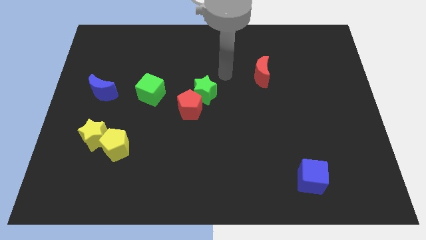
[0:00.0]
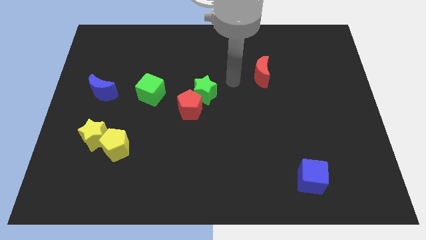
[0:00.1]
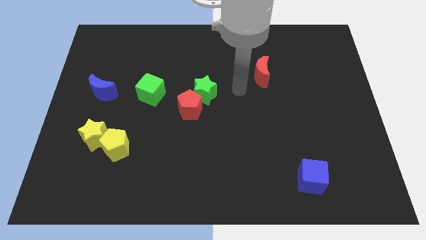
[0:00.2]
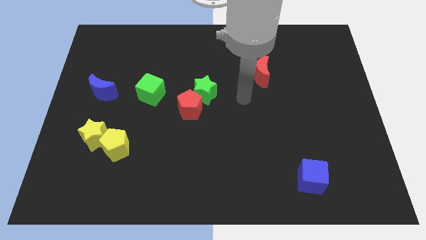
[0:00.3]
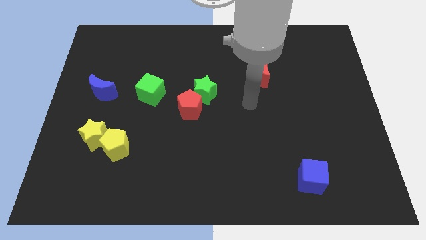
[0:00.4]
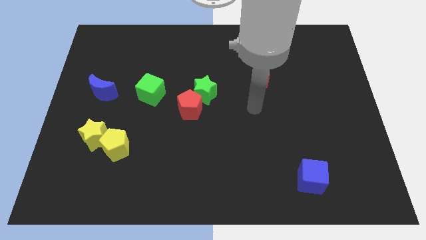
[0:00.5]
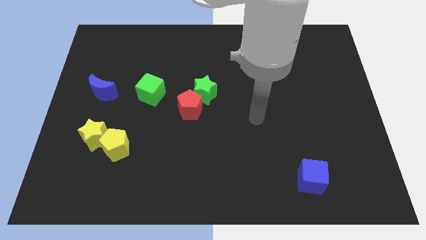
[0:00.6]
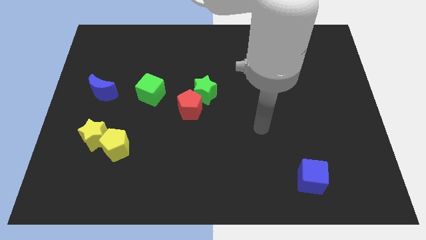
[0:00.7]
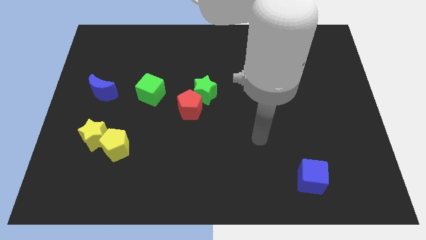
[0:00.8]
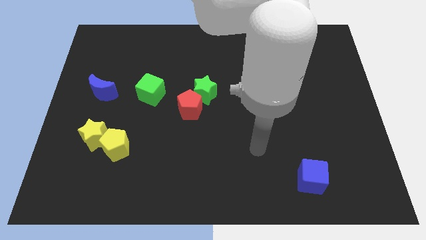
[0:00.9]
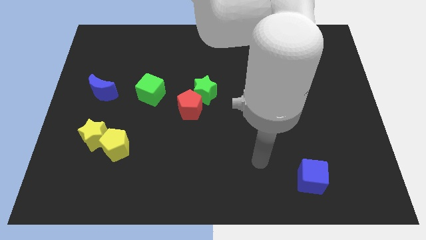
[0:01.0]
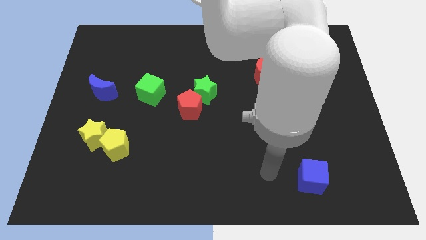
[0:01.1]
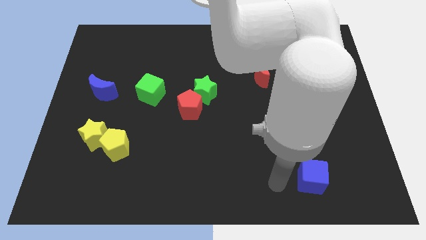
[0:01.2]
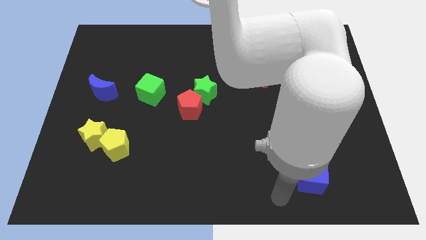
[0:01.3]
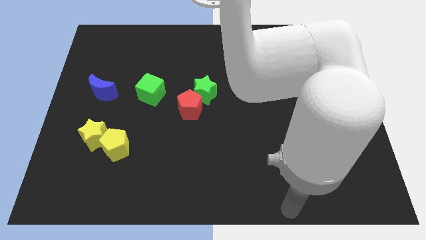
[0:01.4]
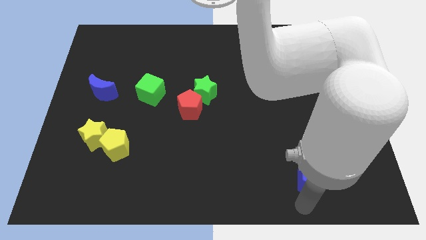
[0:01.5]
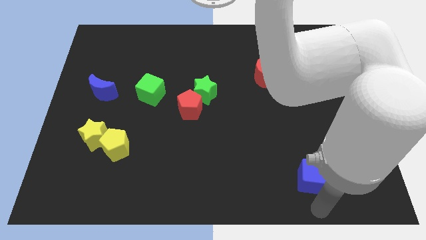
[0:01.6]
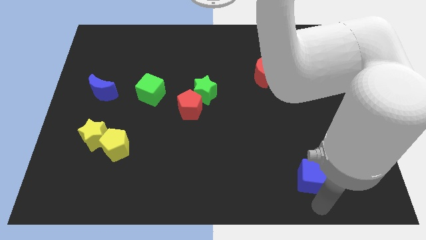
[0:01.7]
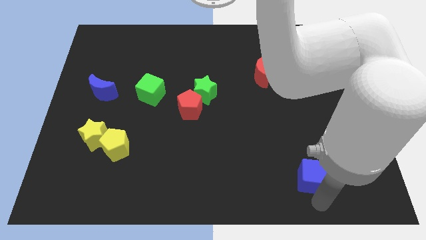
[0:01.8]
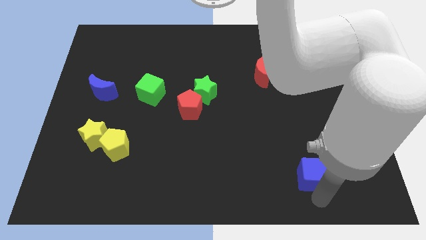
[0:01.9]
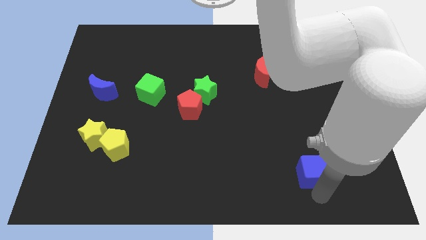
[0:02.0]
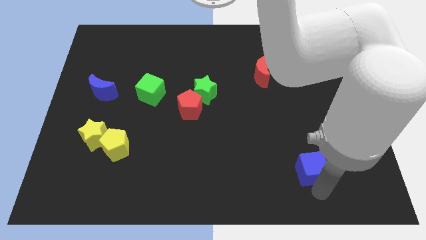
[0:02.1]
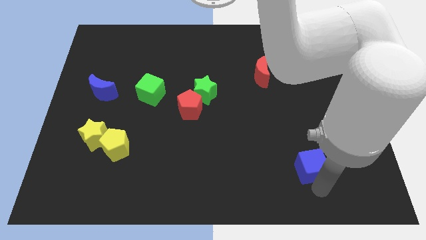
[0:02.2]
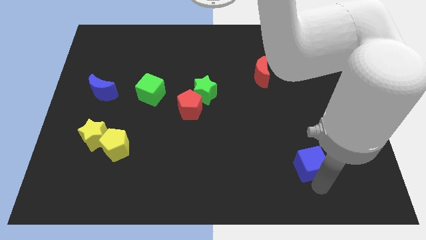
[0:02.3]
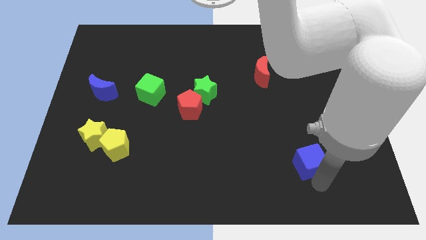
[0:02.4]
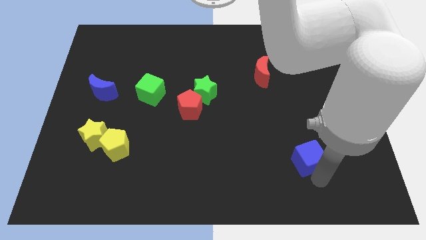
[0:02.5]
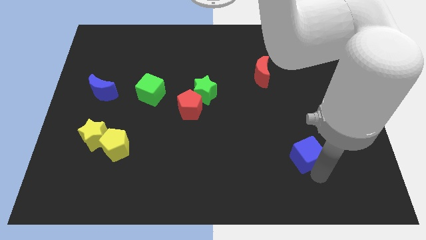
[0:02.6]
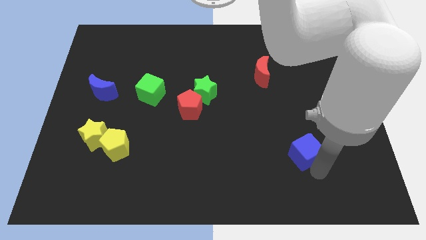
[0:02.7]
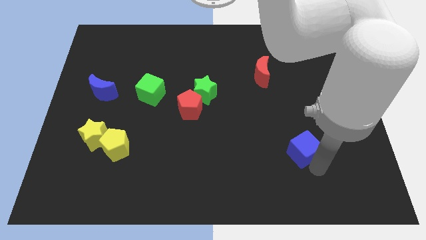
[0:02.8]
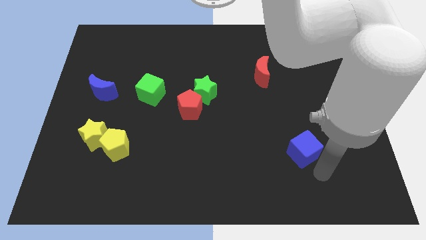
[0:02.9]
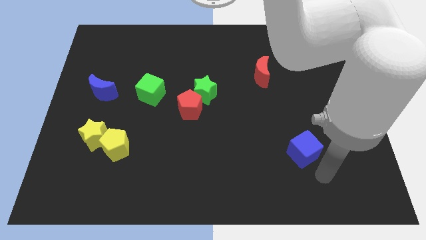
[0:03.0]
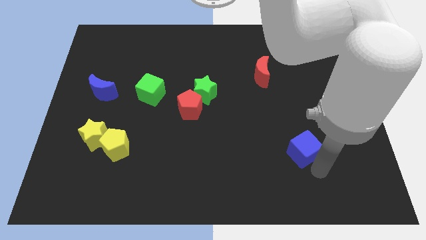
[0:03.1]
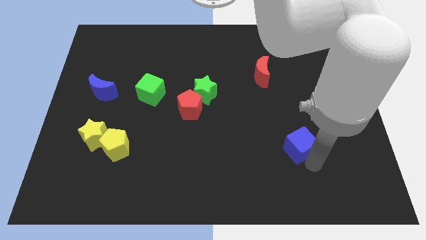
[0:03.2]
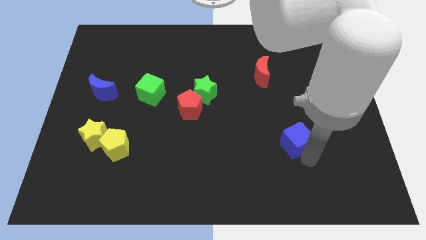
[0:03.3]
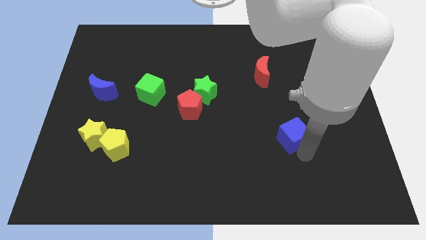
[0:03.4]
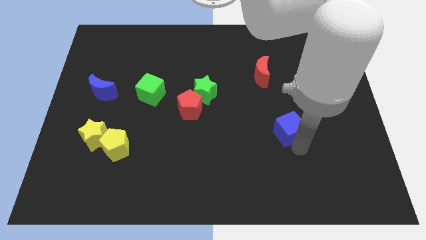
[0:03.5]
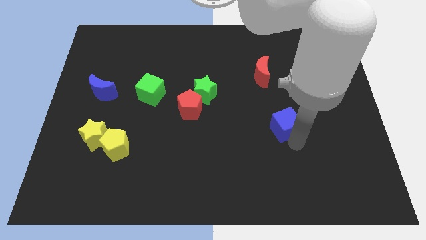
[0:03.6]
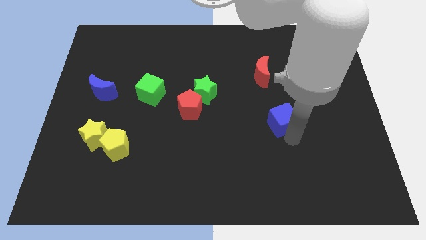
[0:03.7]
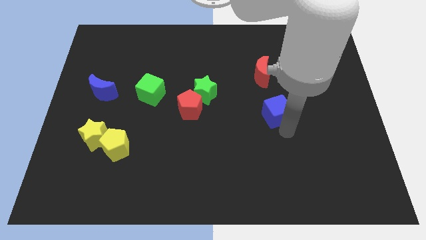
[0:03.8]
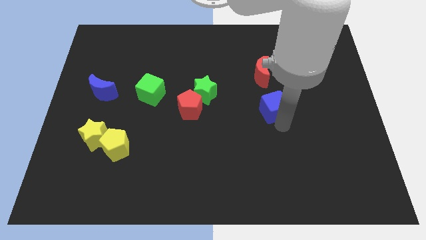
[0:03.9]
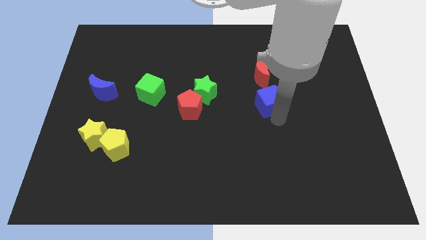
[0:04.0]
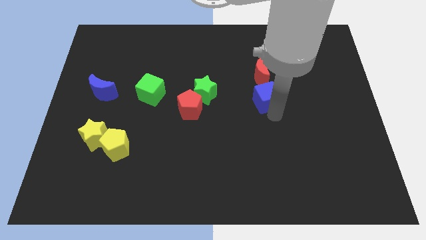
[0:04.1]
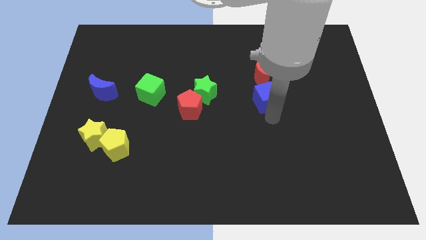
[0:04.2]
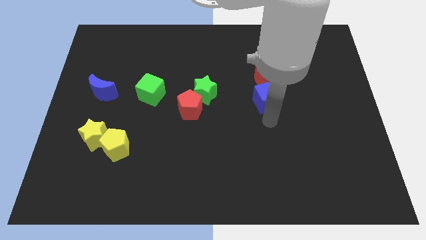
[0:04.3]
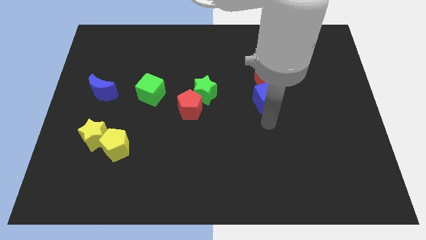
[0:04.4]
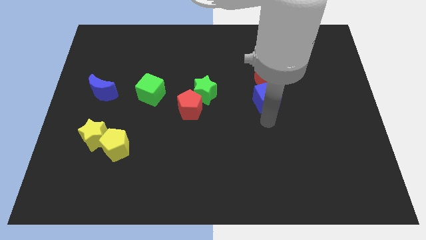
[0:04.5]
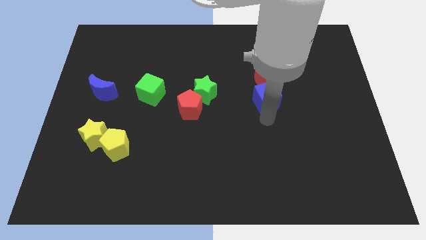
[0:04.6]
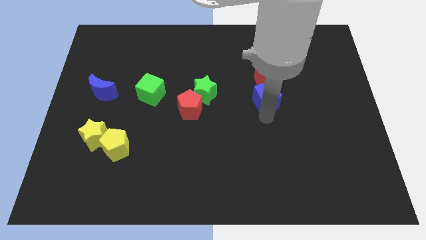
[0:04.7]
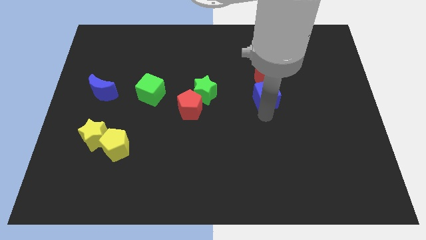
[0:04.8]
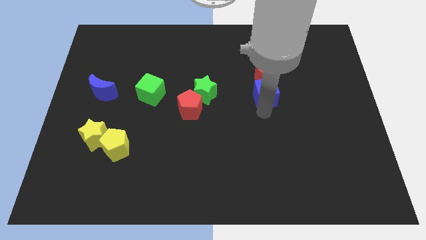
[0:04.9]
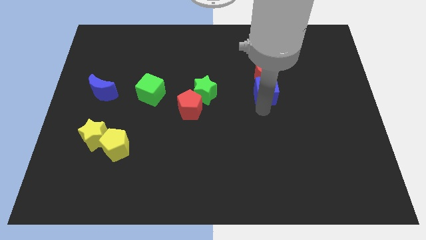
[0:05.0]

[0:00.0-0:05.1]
slide the blue cube towards the red moon

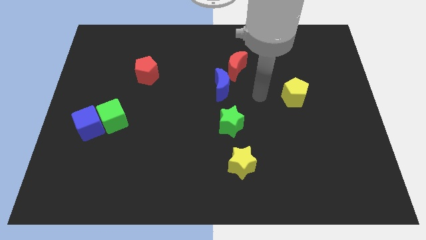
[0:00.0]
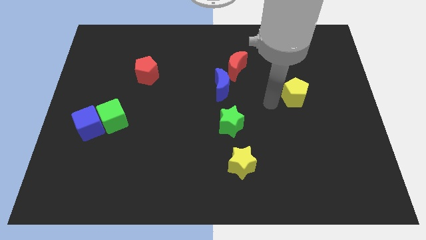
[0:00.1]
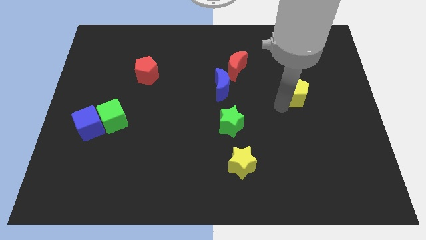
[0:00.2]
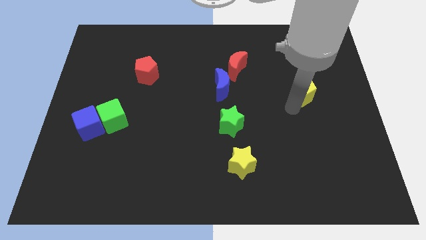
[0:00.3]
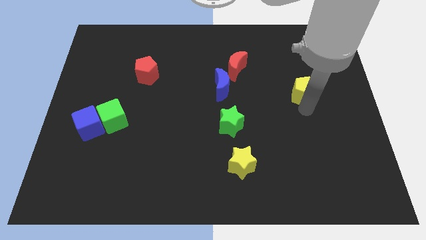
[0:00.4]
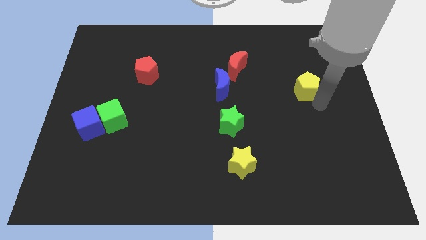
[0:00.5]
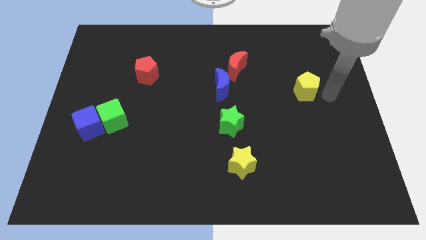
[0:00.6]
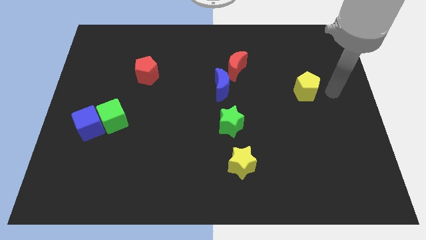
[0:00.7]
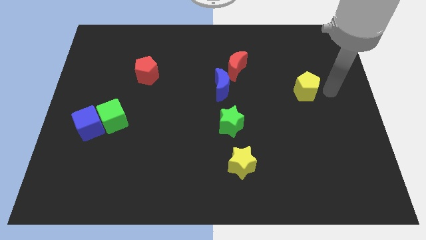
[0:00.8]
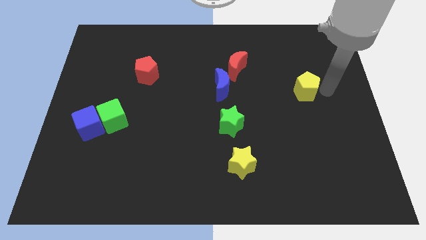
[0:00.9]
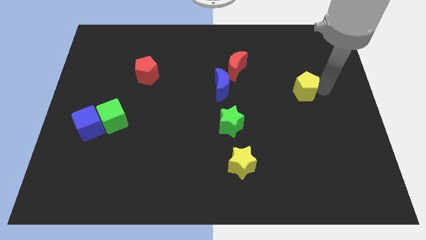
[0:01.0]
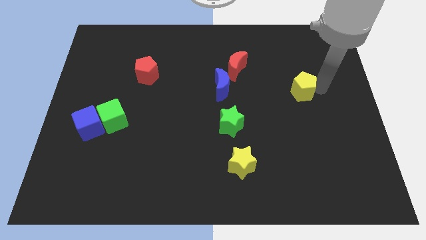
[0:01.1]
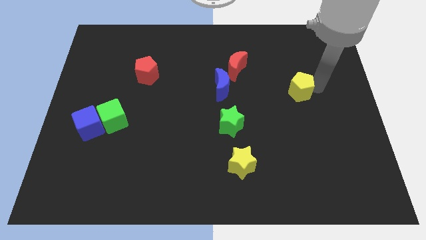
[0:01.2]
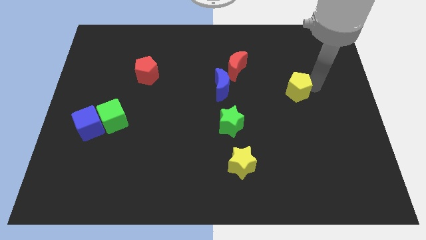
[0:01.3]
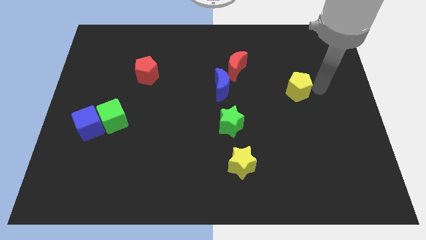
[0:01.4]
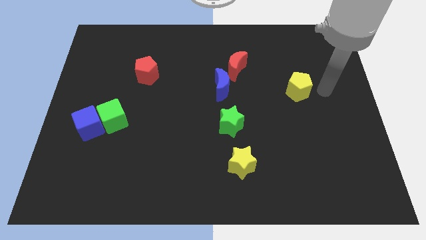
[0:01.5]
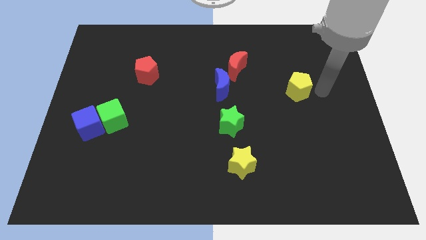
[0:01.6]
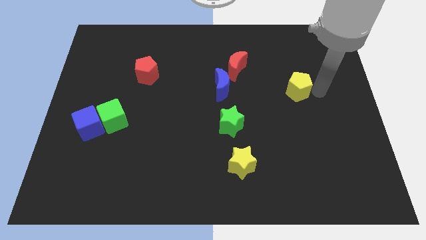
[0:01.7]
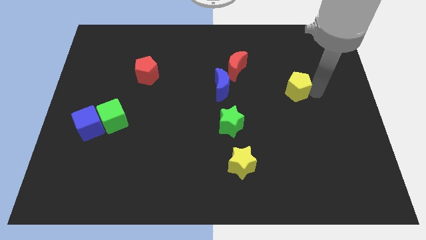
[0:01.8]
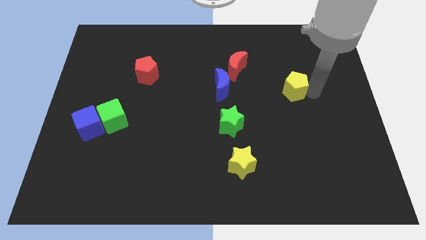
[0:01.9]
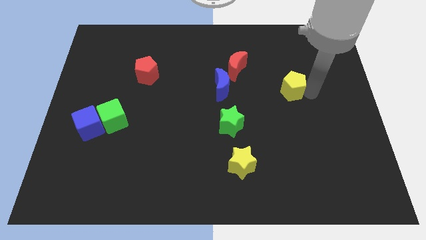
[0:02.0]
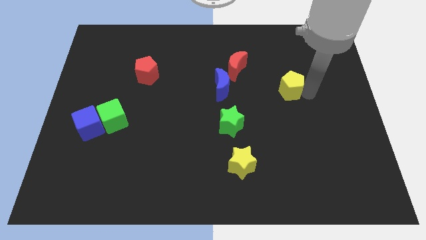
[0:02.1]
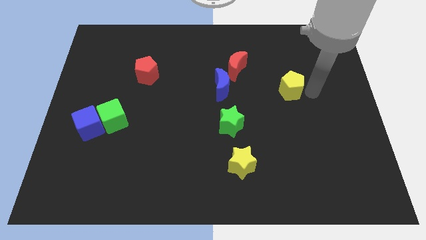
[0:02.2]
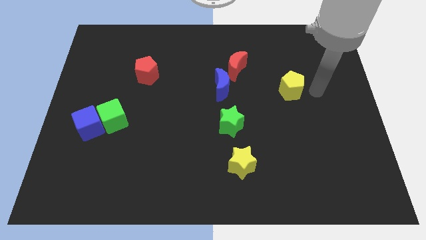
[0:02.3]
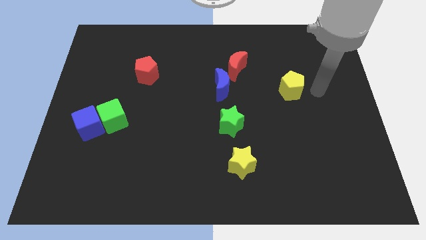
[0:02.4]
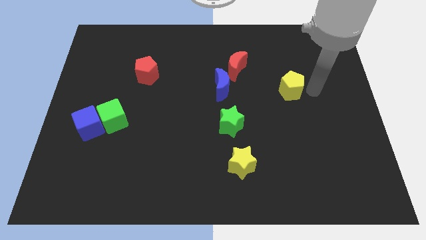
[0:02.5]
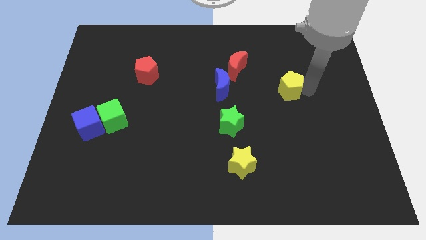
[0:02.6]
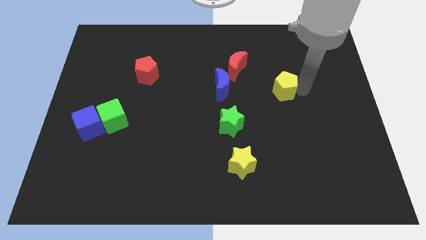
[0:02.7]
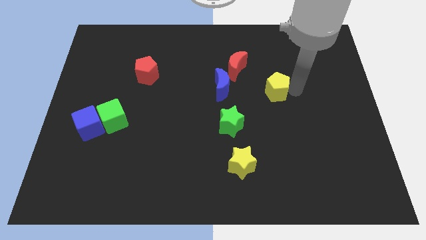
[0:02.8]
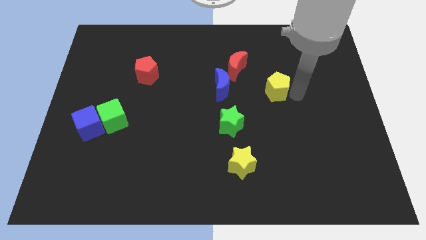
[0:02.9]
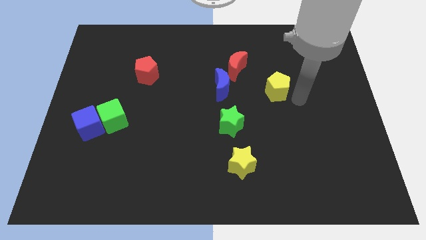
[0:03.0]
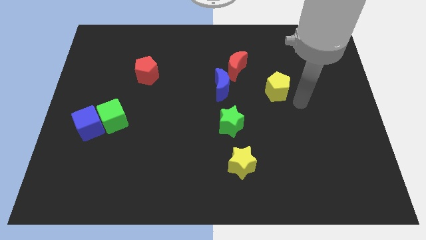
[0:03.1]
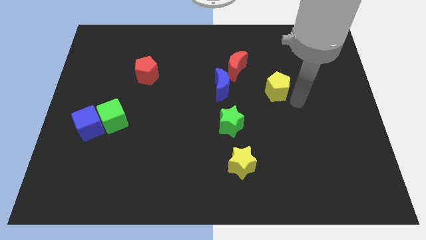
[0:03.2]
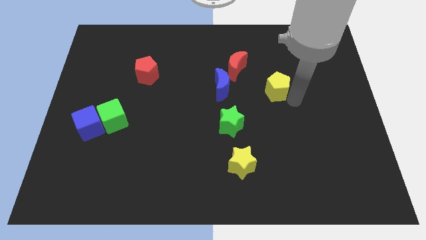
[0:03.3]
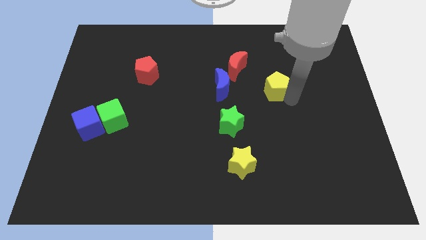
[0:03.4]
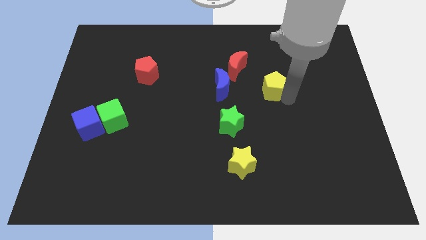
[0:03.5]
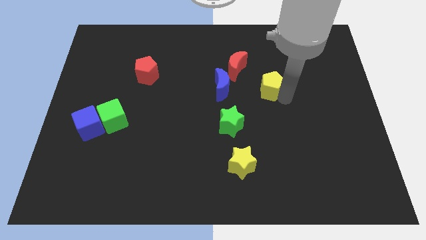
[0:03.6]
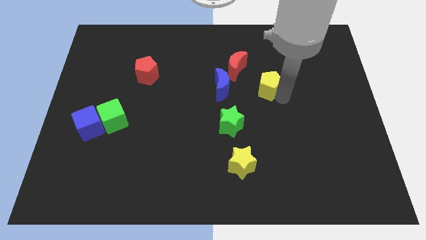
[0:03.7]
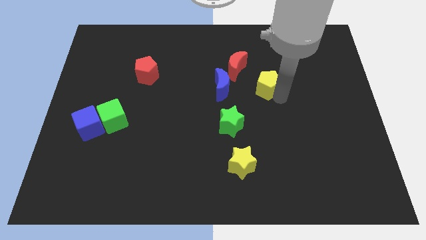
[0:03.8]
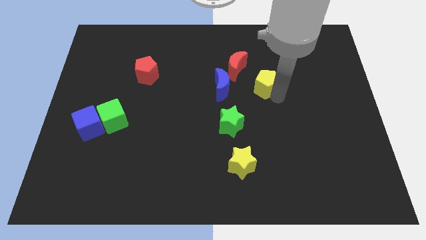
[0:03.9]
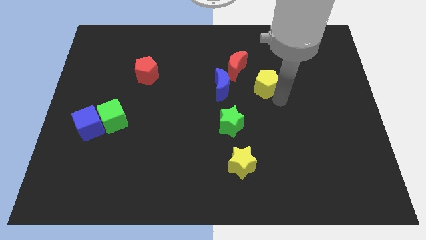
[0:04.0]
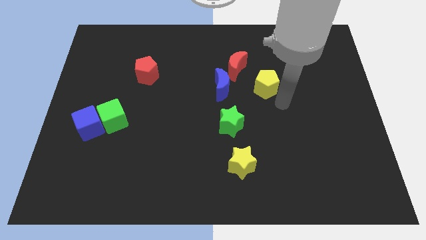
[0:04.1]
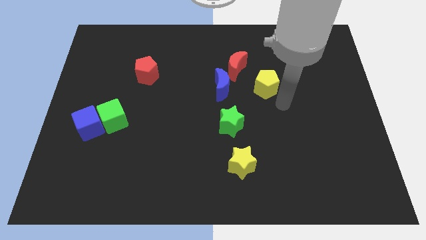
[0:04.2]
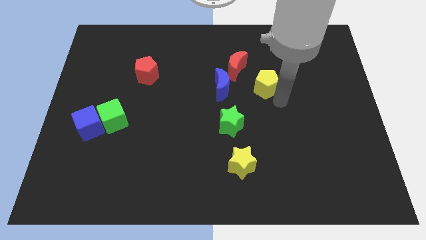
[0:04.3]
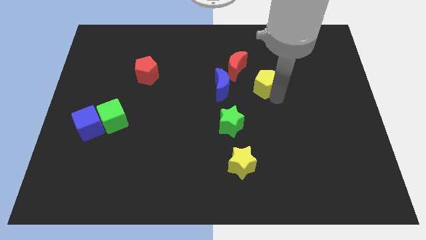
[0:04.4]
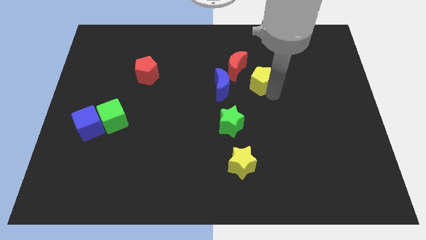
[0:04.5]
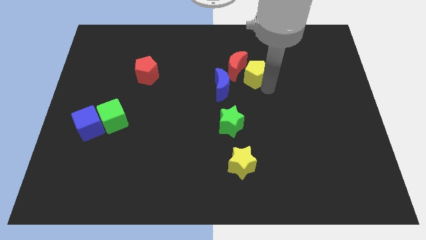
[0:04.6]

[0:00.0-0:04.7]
move the yellow pentagon next to the red moon
